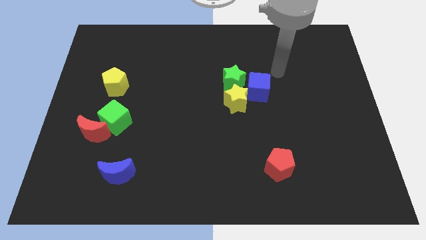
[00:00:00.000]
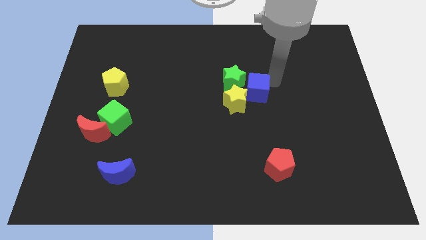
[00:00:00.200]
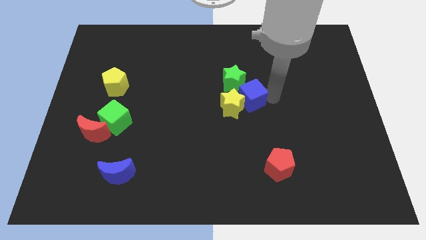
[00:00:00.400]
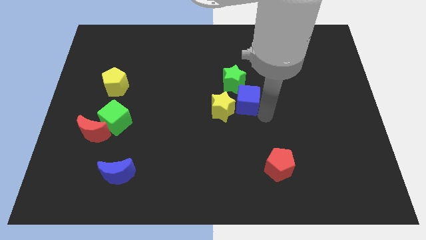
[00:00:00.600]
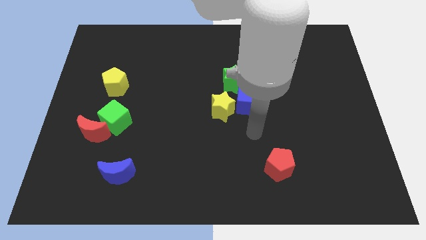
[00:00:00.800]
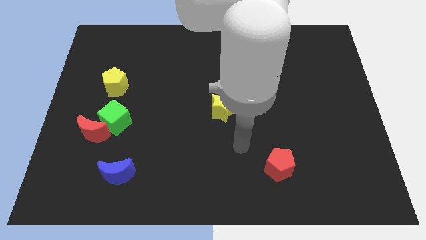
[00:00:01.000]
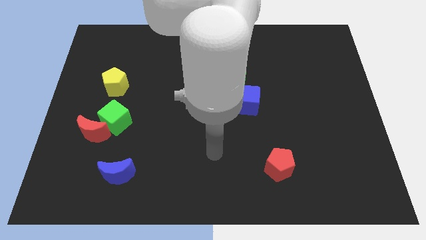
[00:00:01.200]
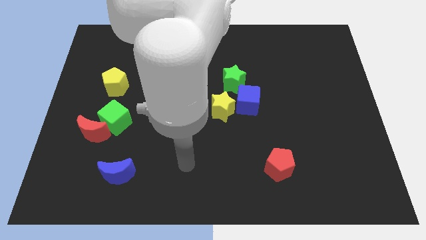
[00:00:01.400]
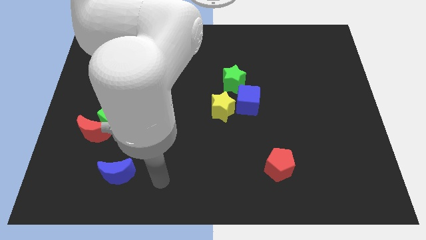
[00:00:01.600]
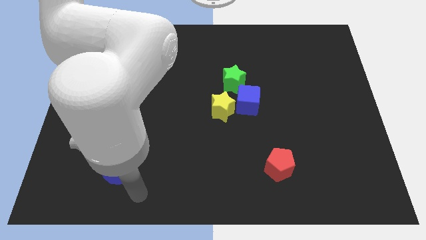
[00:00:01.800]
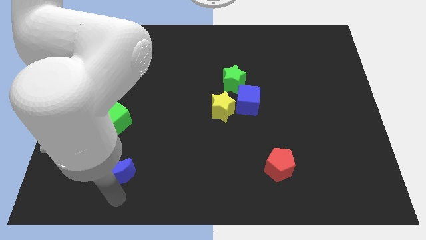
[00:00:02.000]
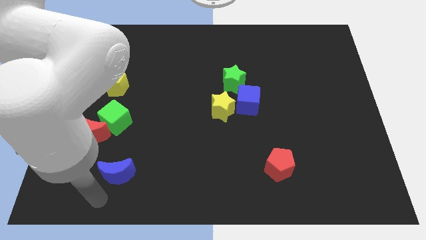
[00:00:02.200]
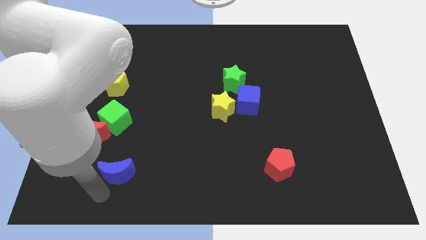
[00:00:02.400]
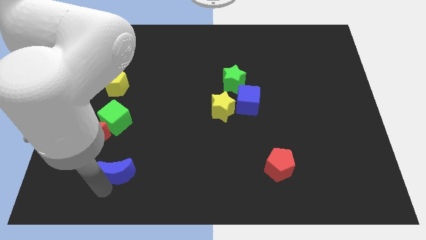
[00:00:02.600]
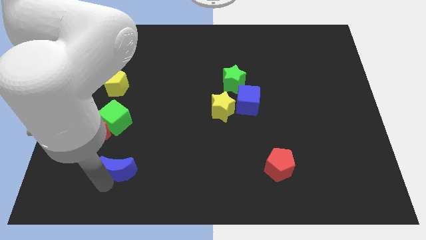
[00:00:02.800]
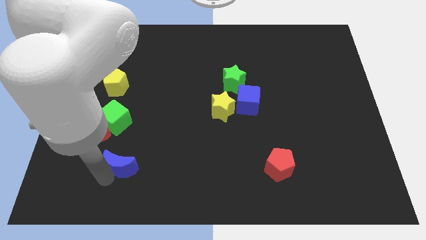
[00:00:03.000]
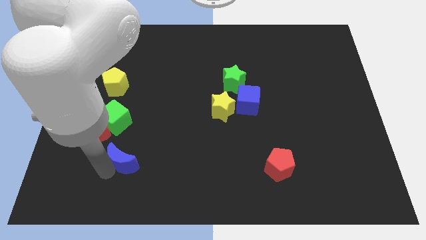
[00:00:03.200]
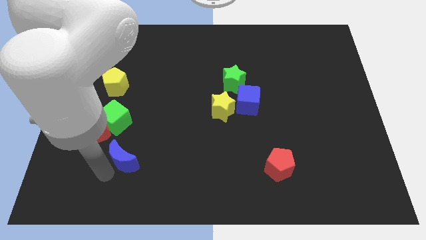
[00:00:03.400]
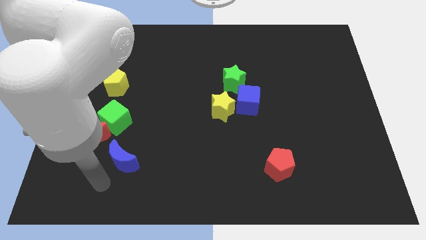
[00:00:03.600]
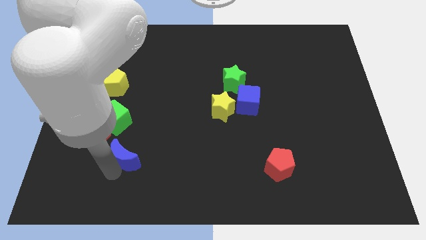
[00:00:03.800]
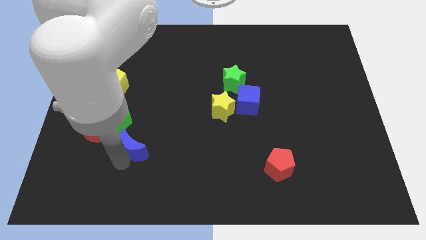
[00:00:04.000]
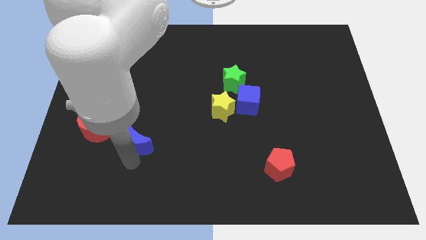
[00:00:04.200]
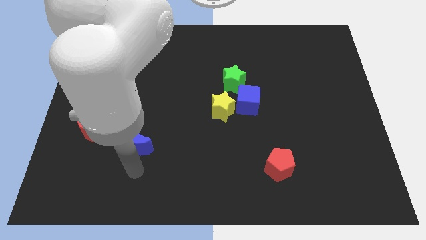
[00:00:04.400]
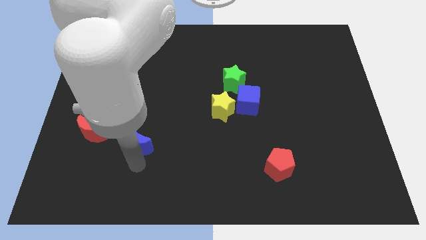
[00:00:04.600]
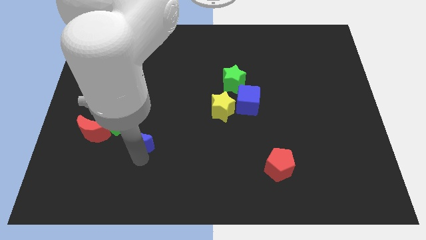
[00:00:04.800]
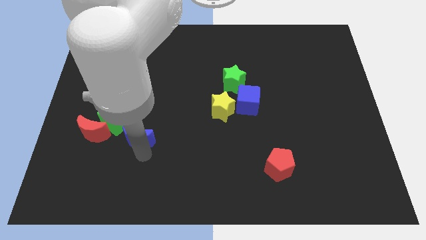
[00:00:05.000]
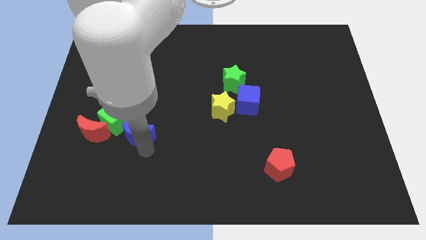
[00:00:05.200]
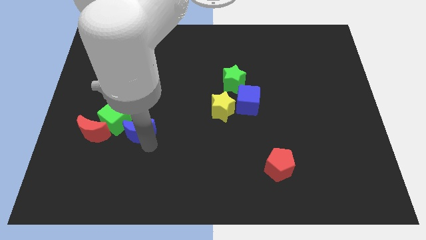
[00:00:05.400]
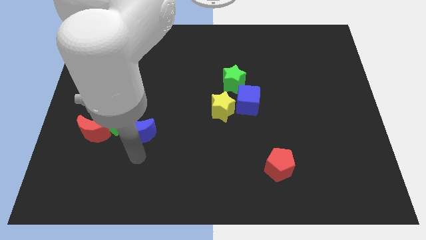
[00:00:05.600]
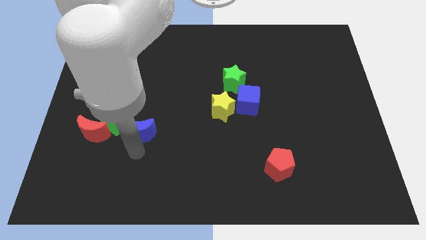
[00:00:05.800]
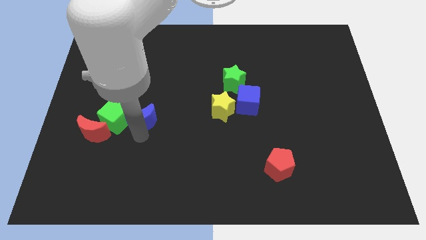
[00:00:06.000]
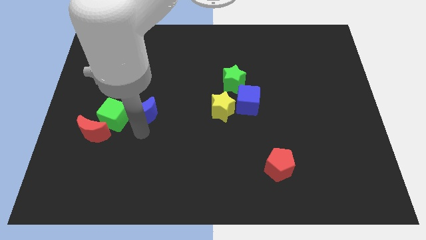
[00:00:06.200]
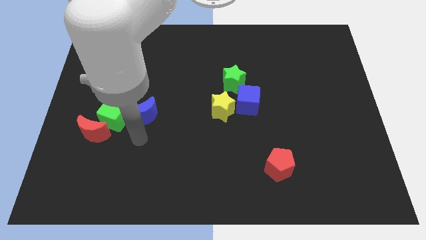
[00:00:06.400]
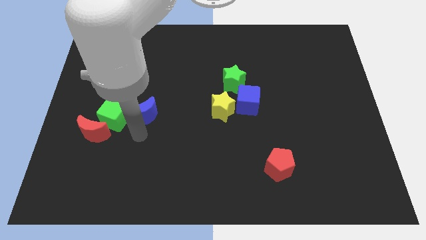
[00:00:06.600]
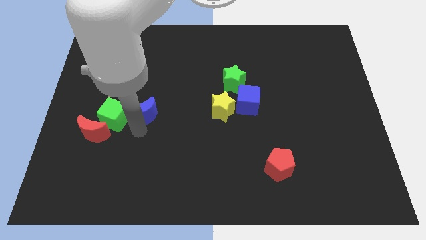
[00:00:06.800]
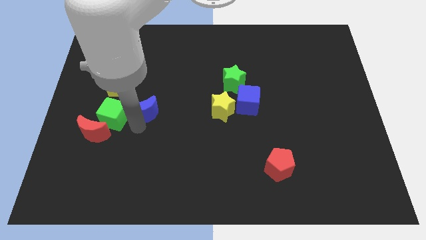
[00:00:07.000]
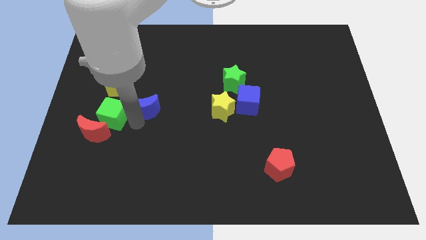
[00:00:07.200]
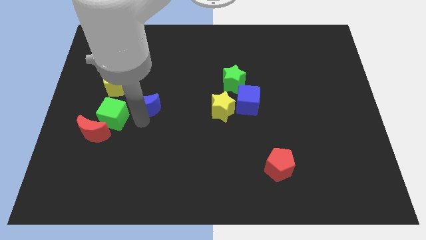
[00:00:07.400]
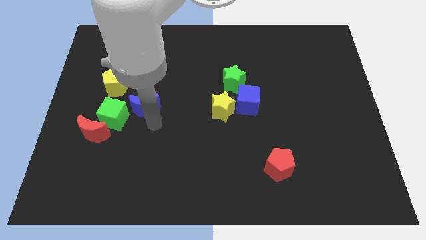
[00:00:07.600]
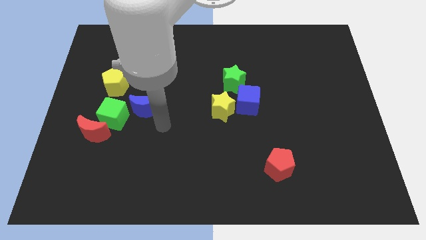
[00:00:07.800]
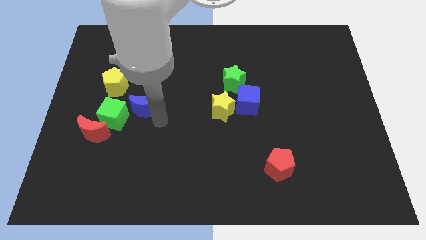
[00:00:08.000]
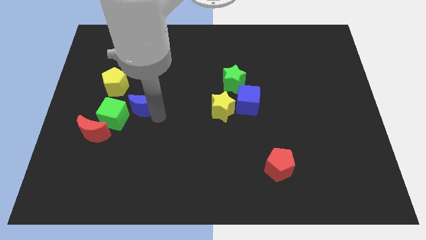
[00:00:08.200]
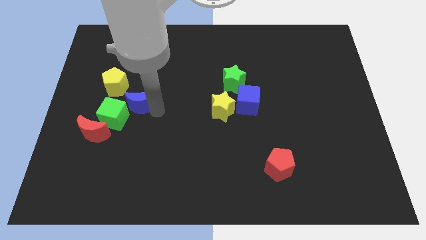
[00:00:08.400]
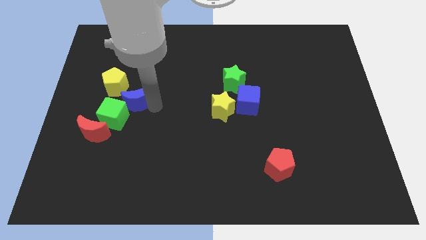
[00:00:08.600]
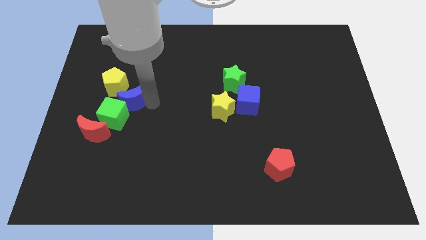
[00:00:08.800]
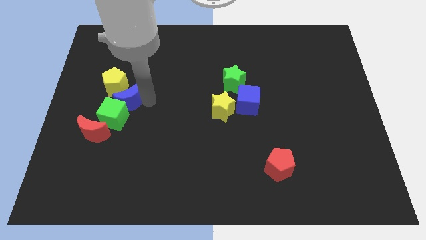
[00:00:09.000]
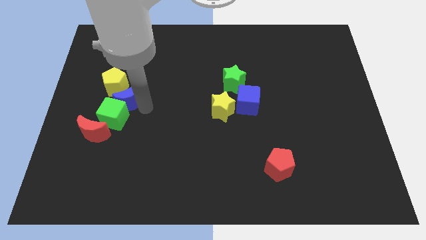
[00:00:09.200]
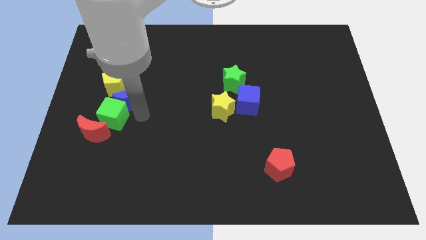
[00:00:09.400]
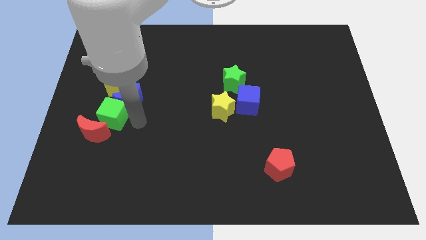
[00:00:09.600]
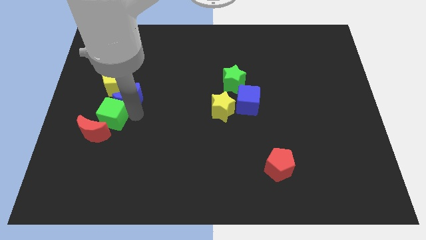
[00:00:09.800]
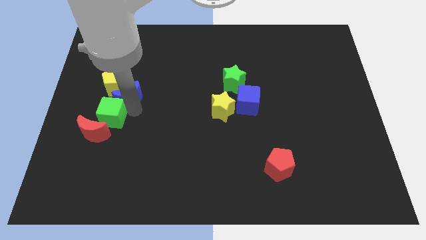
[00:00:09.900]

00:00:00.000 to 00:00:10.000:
slide the blue moon close to the yellow pentagon

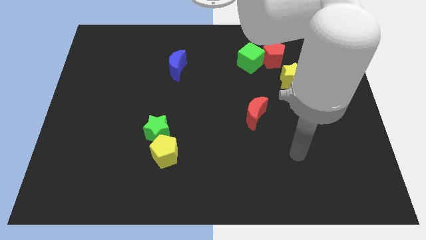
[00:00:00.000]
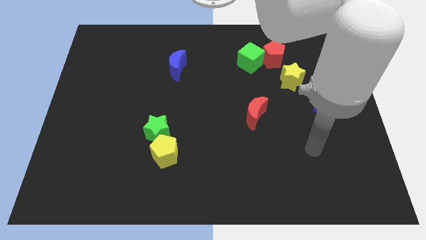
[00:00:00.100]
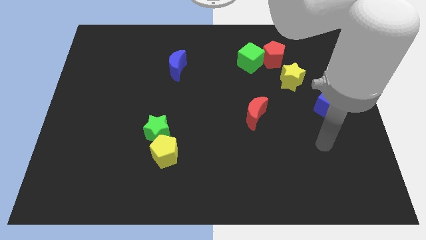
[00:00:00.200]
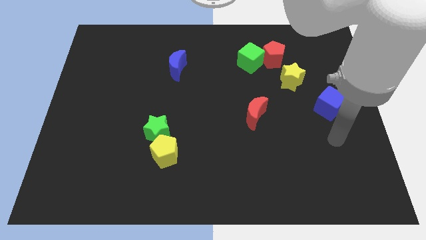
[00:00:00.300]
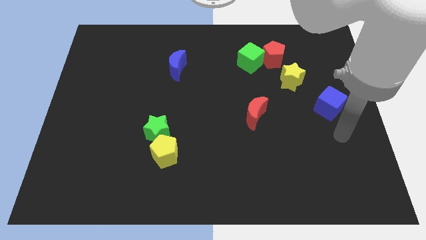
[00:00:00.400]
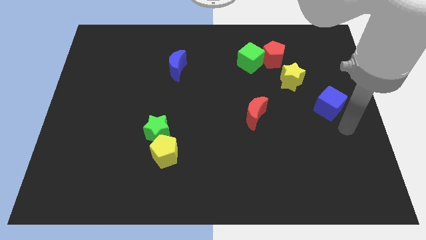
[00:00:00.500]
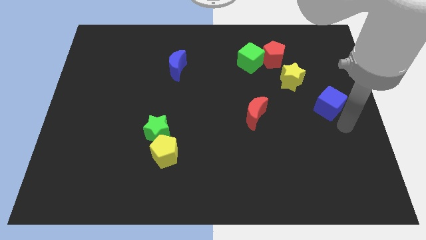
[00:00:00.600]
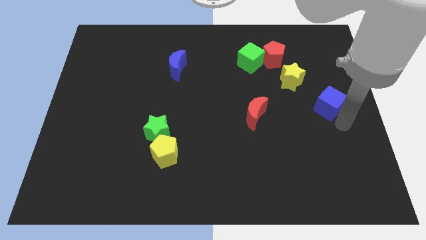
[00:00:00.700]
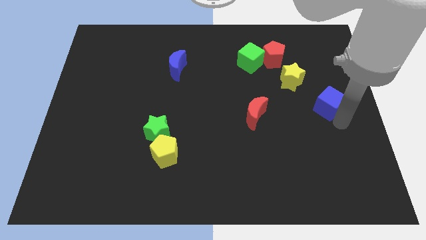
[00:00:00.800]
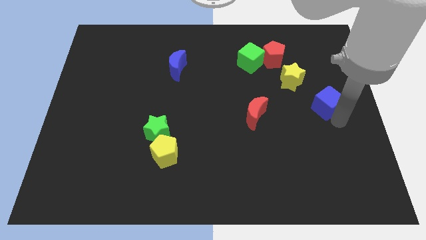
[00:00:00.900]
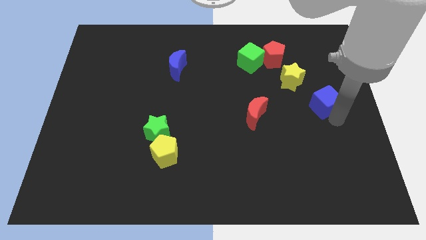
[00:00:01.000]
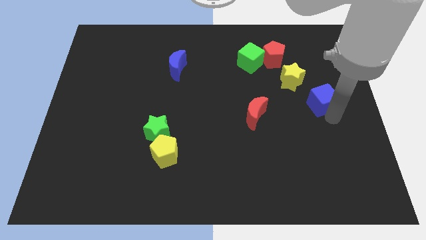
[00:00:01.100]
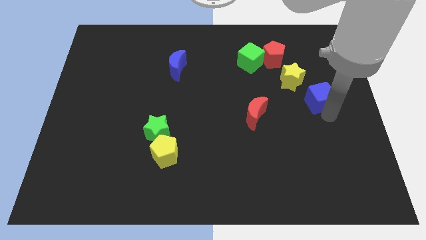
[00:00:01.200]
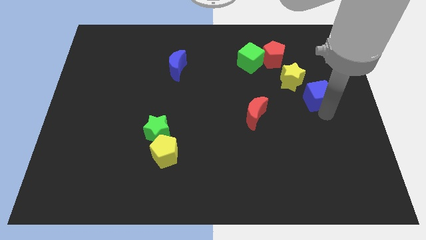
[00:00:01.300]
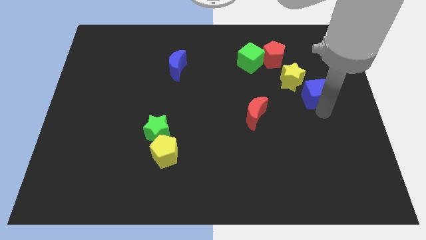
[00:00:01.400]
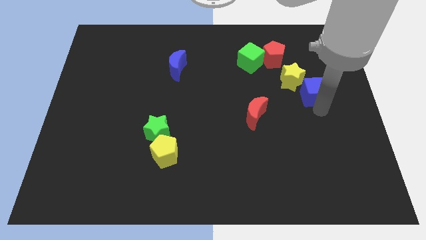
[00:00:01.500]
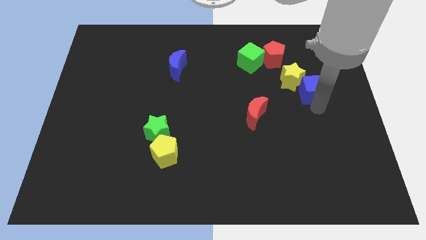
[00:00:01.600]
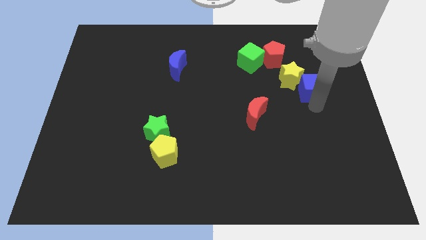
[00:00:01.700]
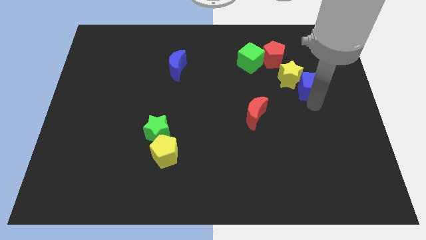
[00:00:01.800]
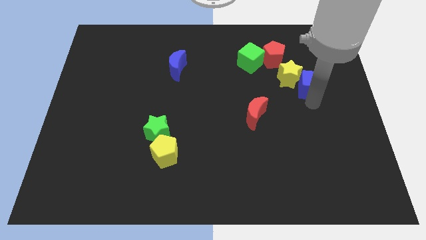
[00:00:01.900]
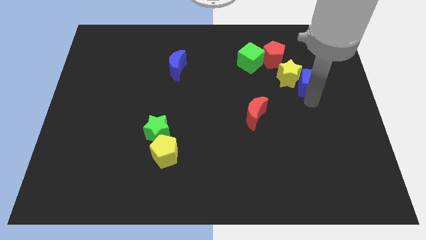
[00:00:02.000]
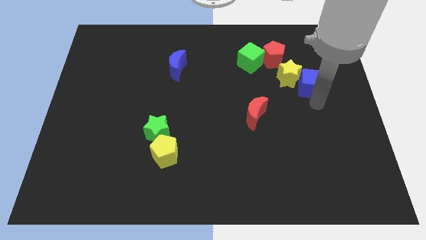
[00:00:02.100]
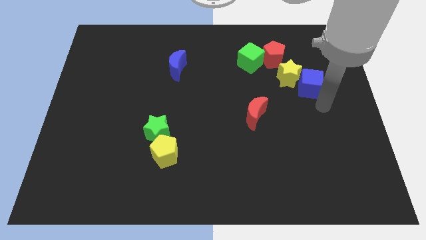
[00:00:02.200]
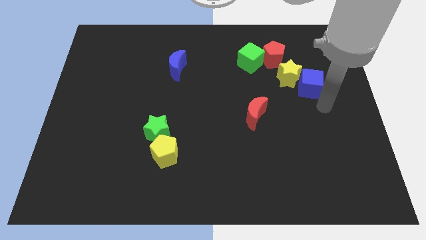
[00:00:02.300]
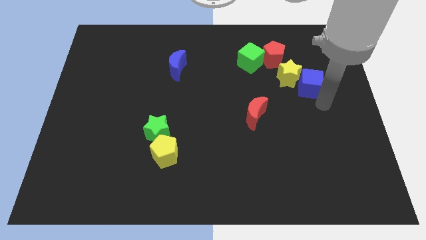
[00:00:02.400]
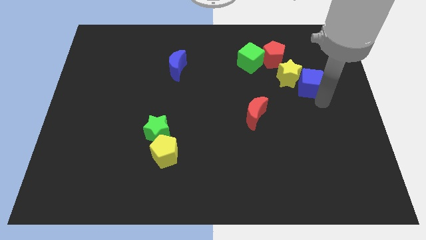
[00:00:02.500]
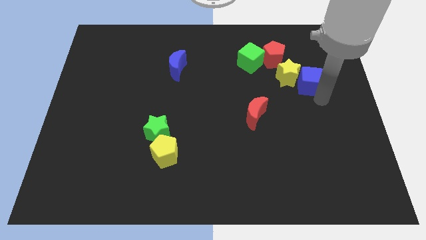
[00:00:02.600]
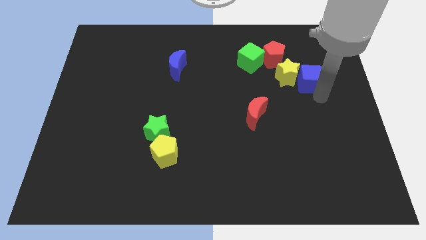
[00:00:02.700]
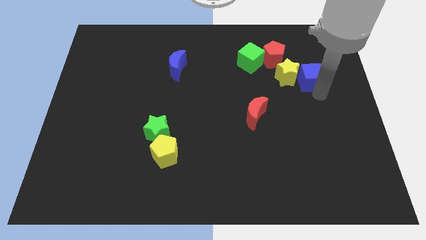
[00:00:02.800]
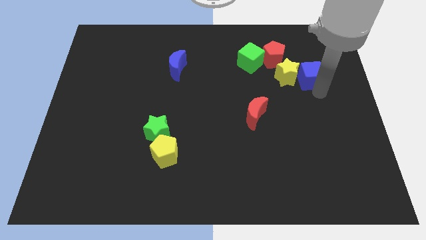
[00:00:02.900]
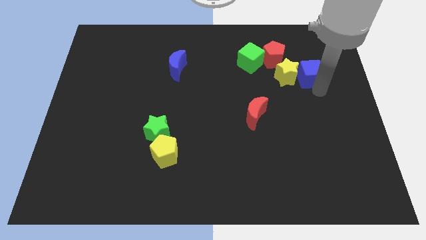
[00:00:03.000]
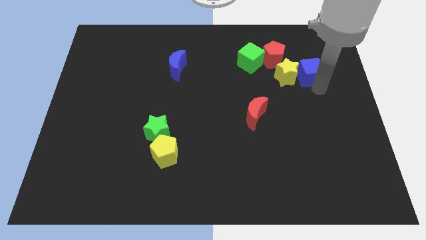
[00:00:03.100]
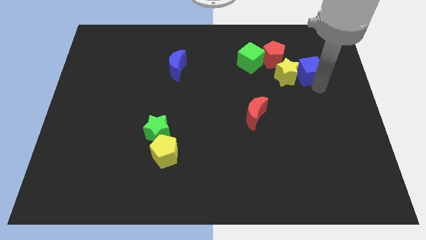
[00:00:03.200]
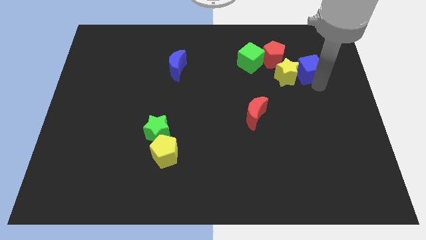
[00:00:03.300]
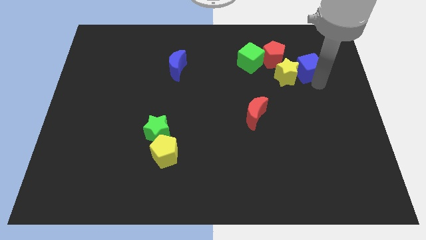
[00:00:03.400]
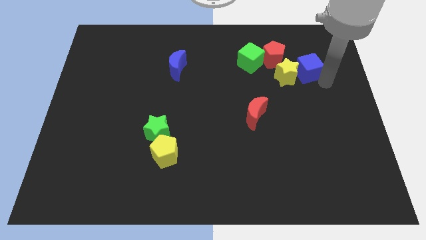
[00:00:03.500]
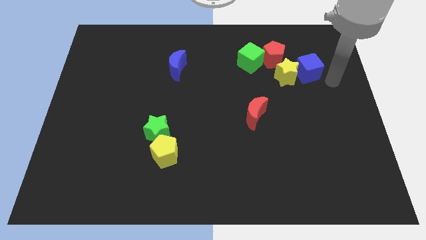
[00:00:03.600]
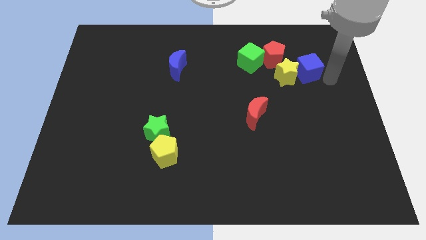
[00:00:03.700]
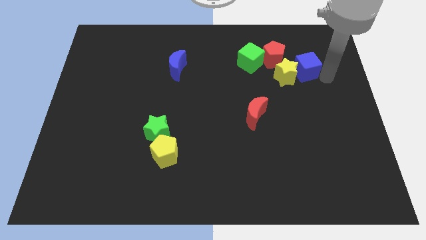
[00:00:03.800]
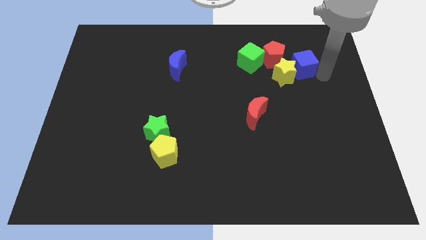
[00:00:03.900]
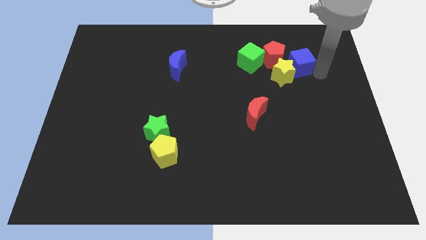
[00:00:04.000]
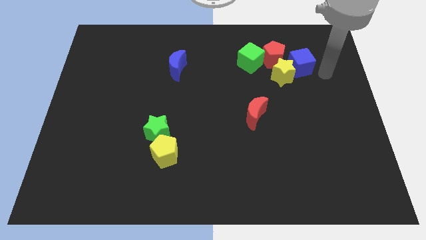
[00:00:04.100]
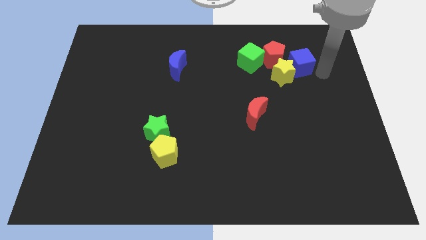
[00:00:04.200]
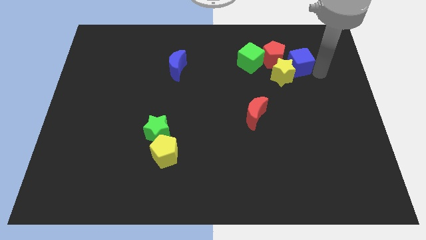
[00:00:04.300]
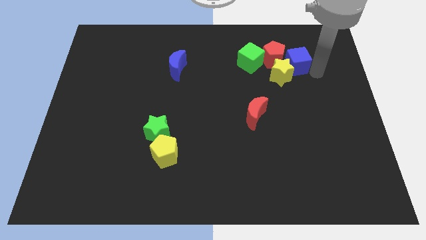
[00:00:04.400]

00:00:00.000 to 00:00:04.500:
push the blue cube towards the red pentagon
